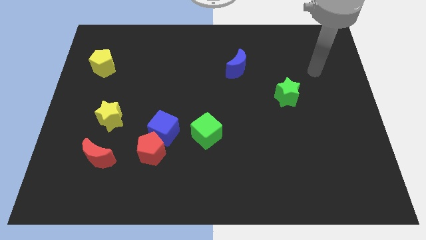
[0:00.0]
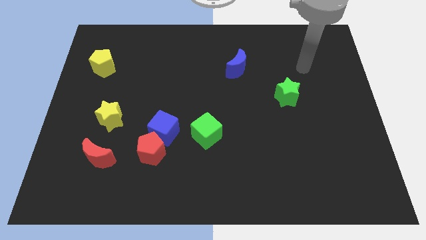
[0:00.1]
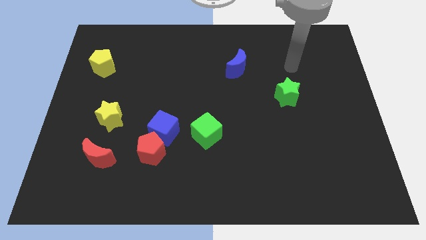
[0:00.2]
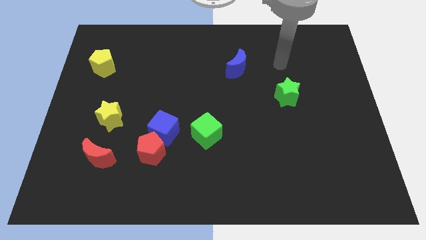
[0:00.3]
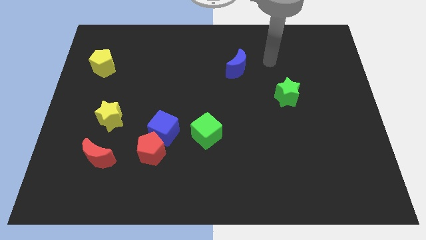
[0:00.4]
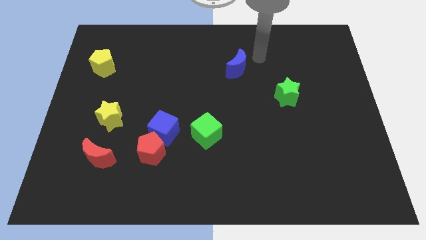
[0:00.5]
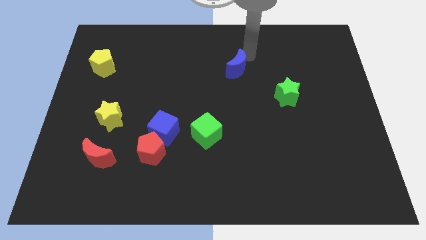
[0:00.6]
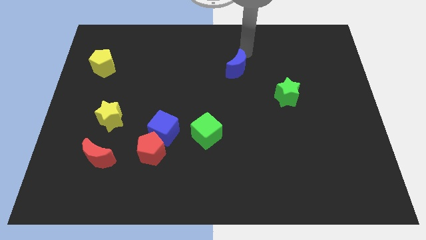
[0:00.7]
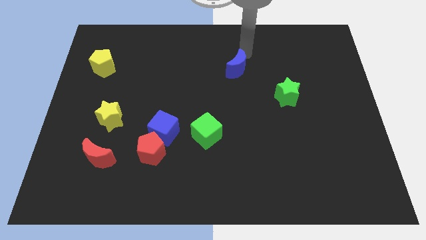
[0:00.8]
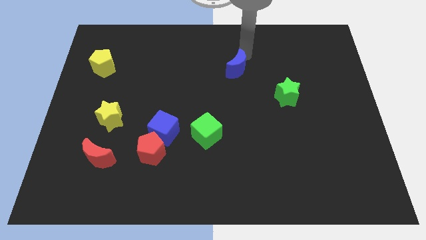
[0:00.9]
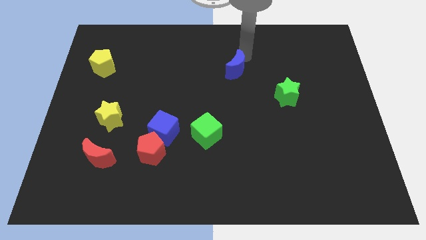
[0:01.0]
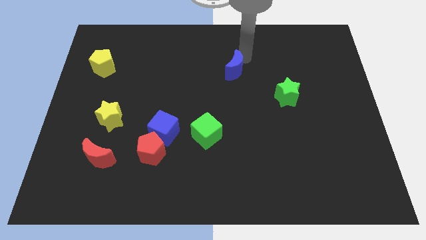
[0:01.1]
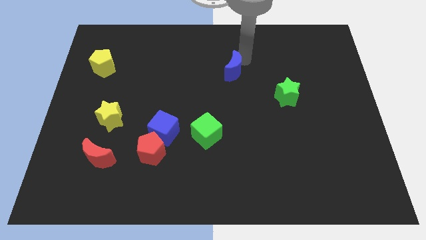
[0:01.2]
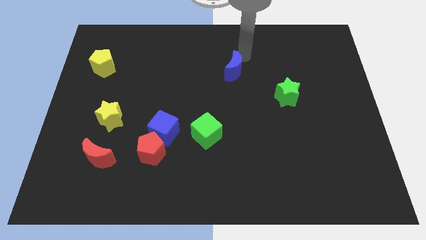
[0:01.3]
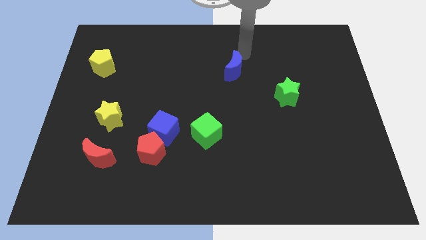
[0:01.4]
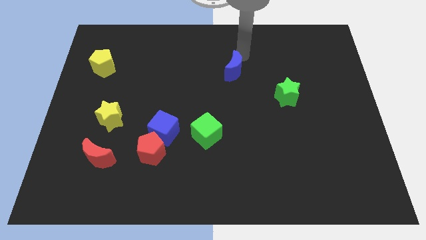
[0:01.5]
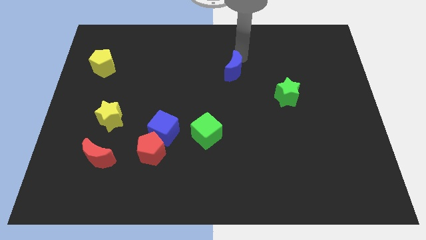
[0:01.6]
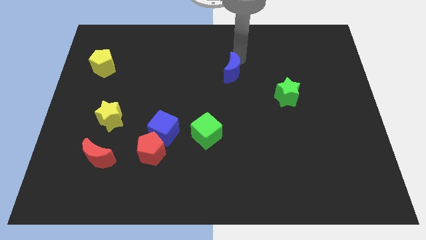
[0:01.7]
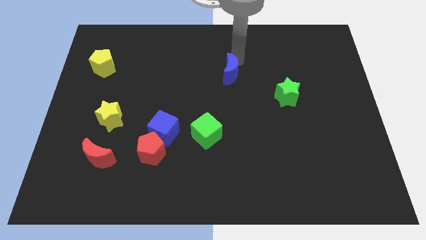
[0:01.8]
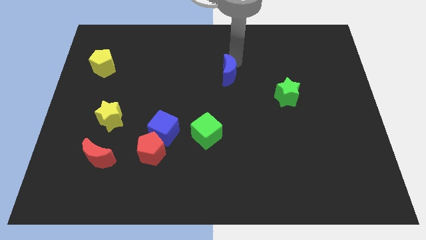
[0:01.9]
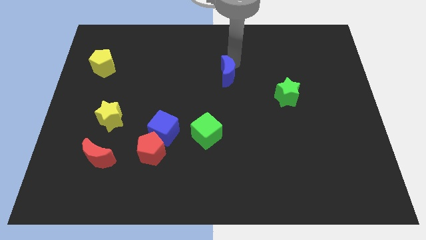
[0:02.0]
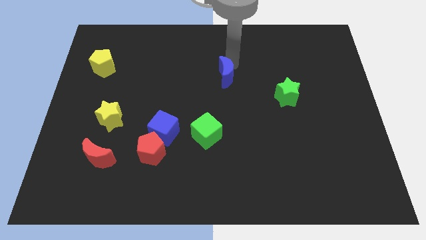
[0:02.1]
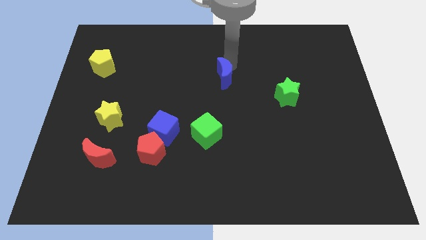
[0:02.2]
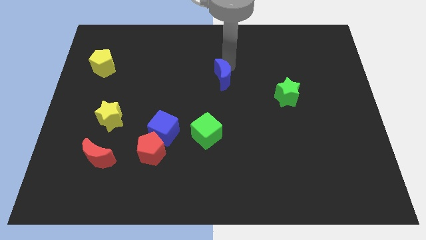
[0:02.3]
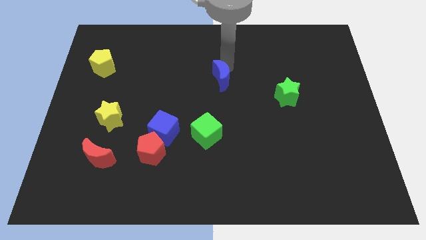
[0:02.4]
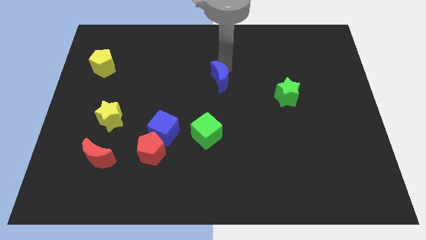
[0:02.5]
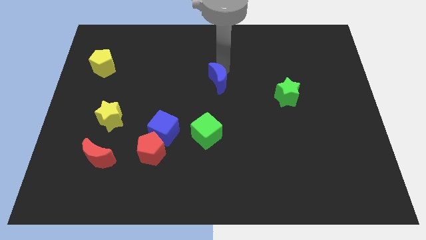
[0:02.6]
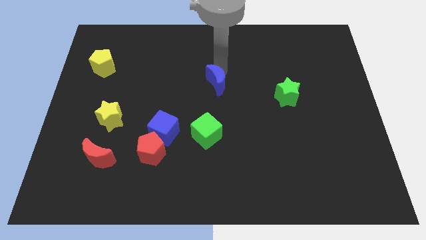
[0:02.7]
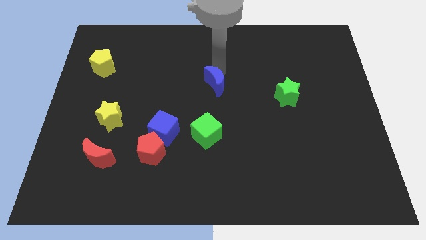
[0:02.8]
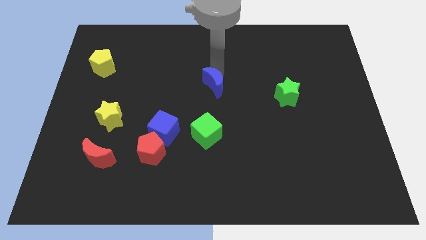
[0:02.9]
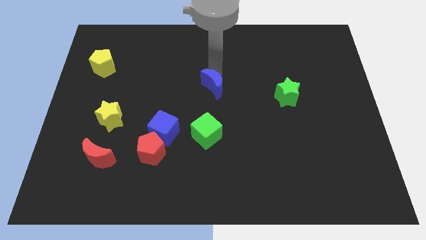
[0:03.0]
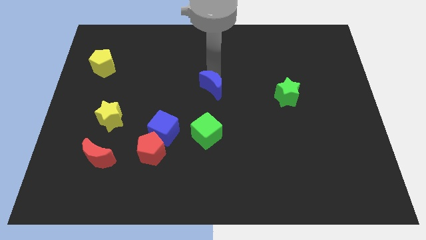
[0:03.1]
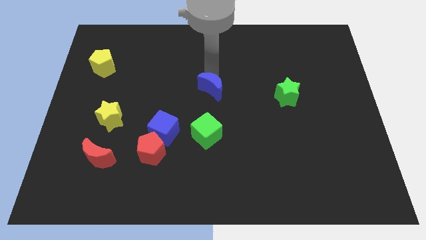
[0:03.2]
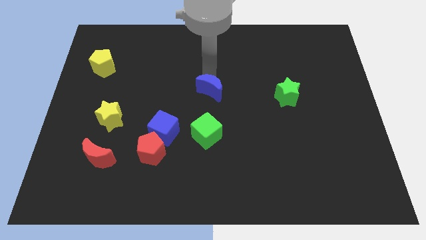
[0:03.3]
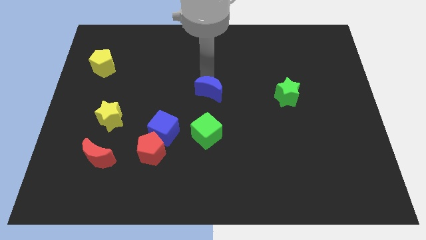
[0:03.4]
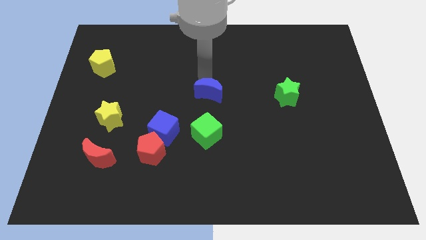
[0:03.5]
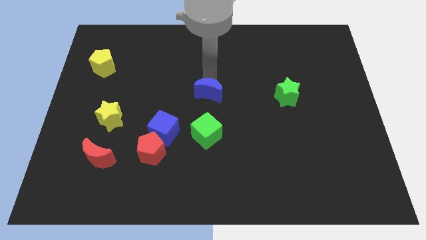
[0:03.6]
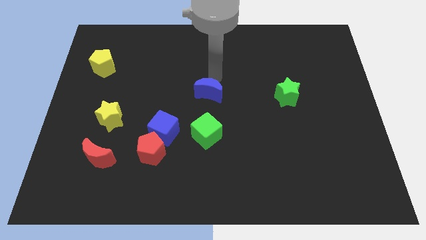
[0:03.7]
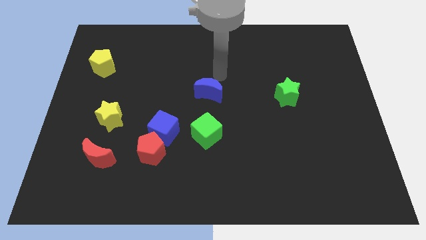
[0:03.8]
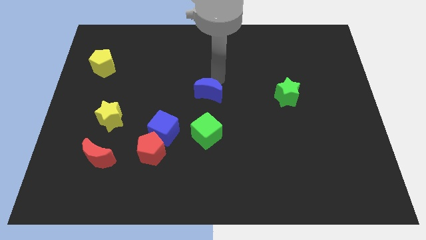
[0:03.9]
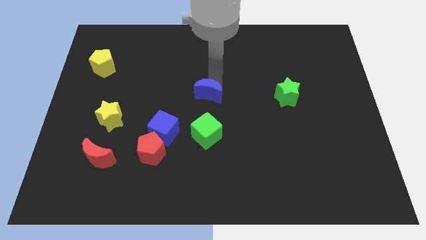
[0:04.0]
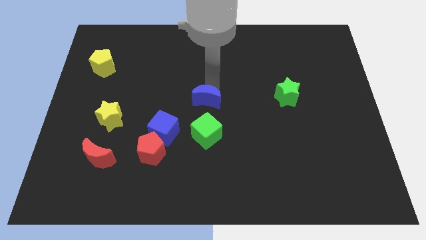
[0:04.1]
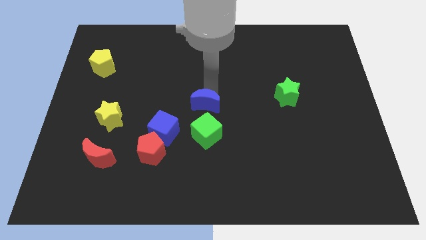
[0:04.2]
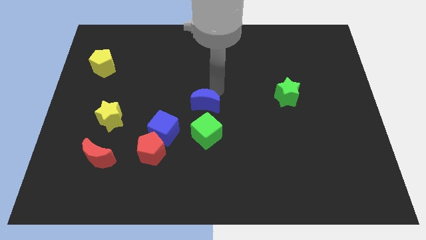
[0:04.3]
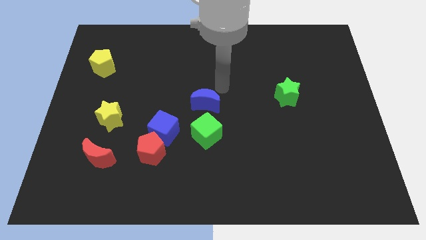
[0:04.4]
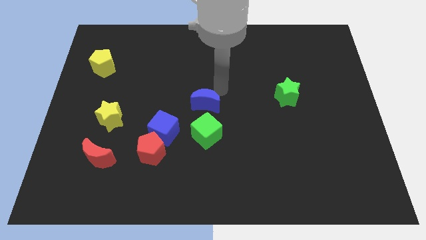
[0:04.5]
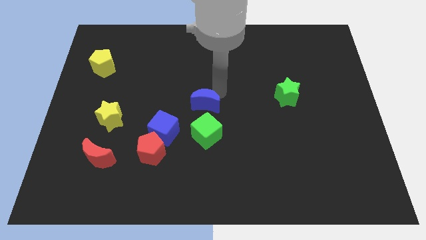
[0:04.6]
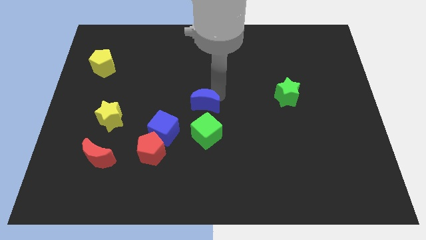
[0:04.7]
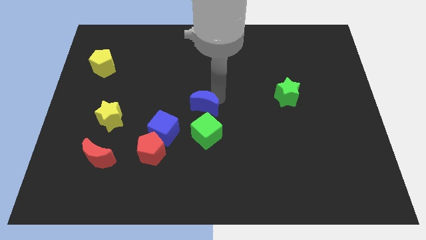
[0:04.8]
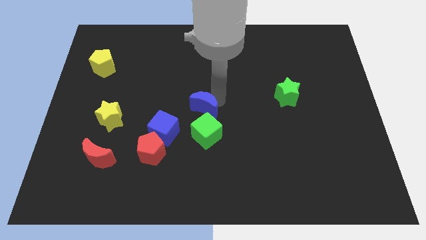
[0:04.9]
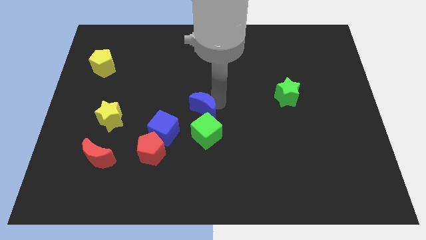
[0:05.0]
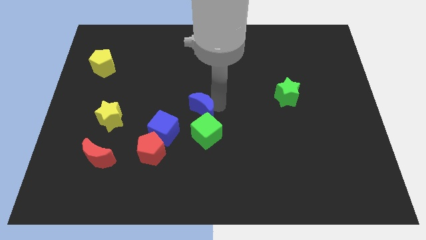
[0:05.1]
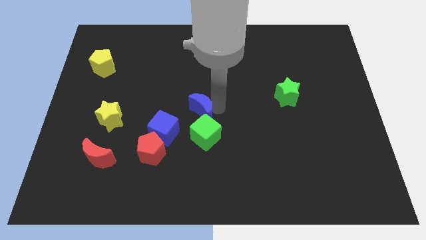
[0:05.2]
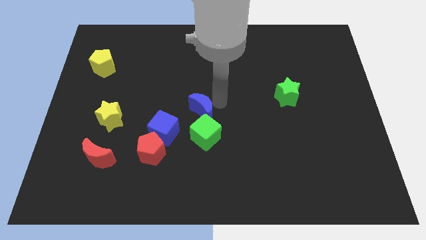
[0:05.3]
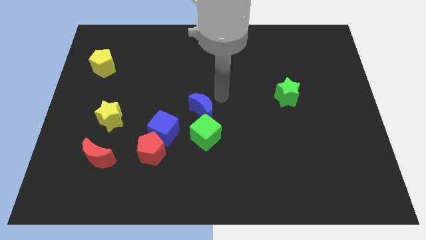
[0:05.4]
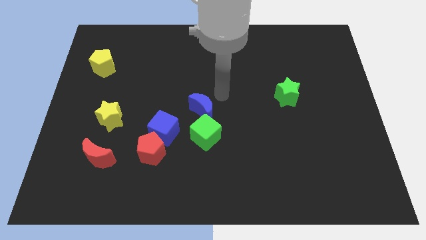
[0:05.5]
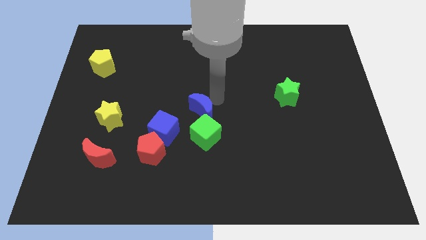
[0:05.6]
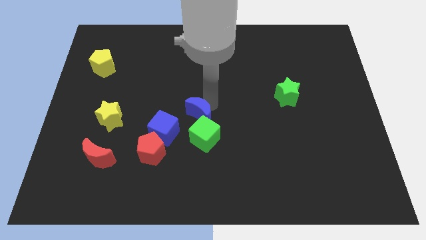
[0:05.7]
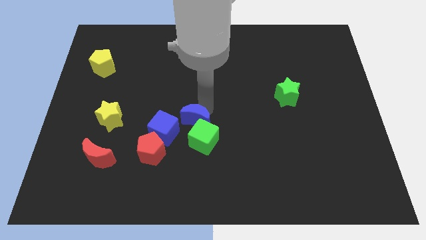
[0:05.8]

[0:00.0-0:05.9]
move the blue moon to the top right side of the red pentagon

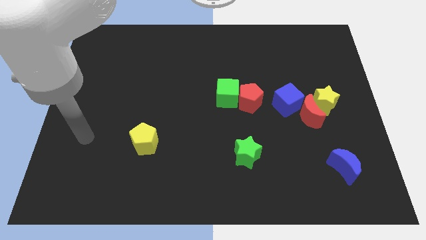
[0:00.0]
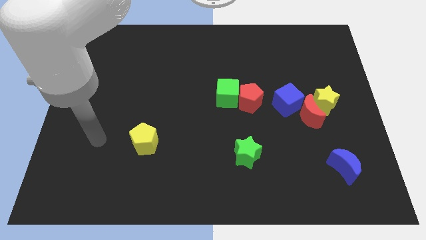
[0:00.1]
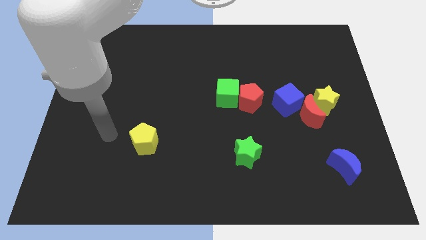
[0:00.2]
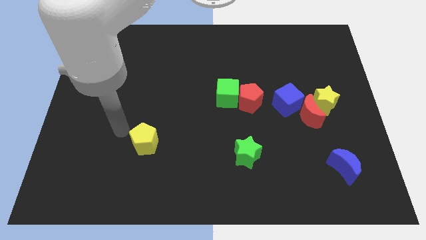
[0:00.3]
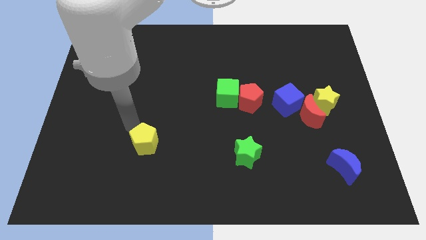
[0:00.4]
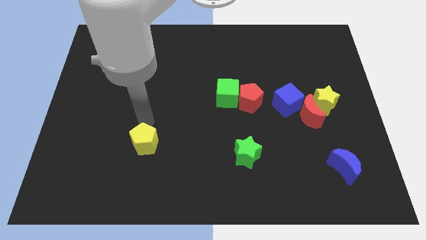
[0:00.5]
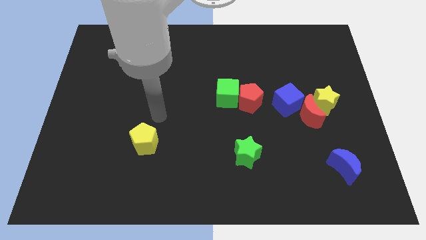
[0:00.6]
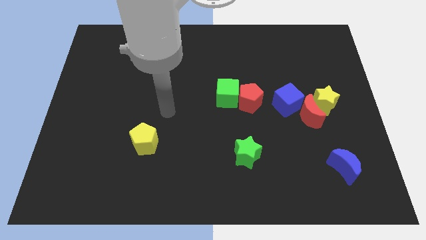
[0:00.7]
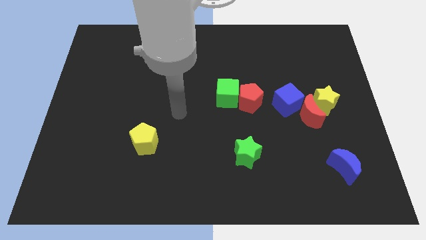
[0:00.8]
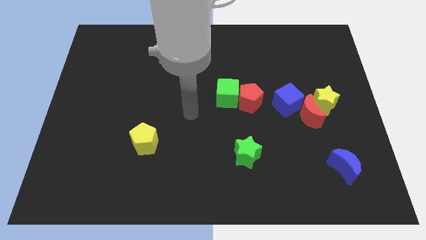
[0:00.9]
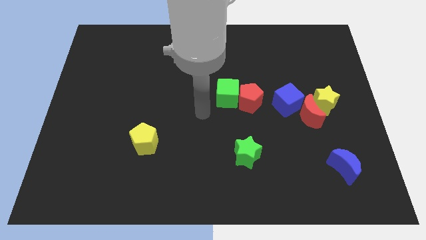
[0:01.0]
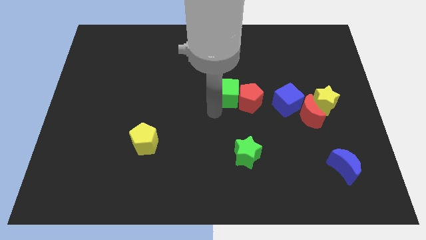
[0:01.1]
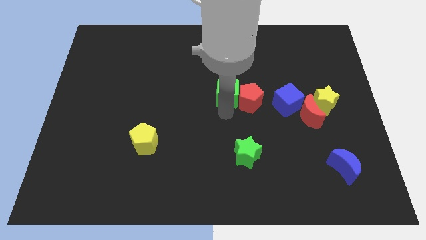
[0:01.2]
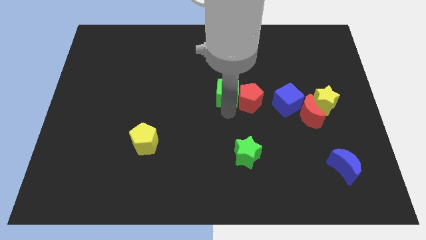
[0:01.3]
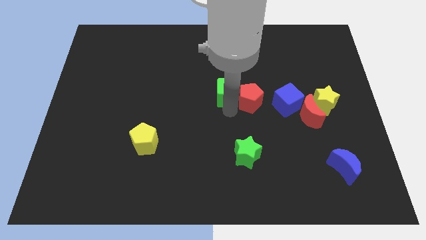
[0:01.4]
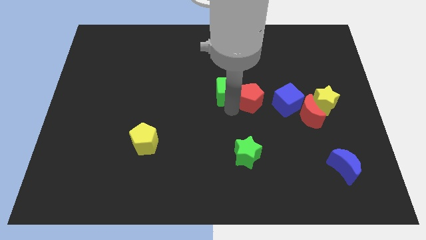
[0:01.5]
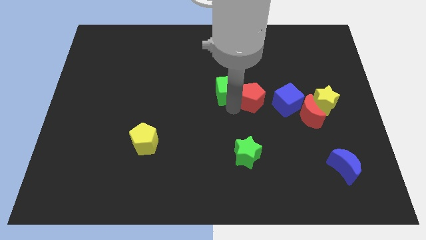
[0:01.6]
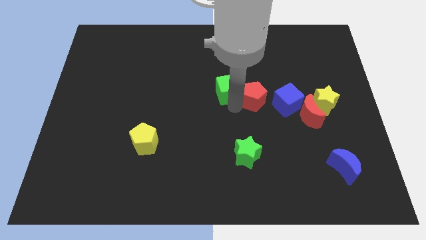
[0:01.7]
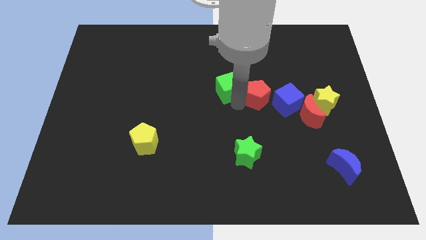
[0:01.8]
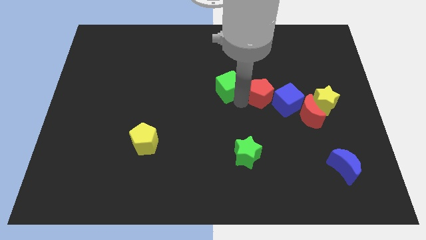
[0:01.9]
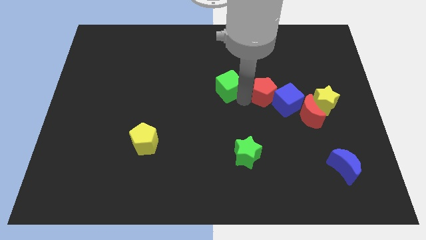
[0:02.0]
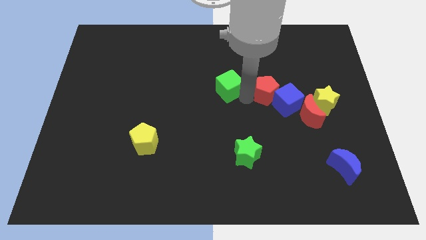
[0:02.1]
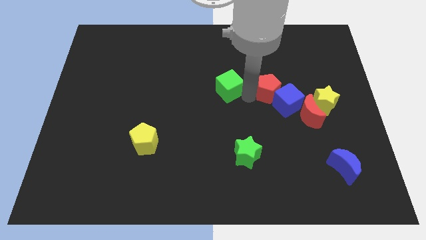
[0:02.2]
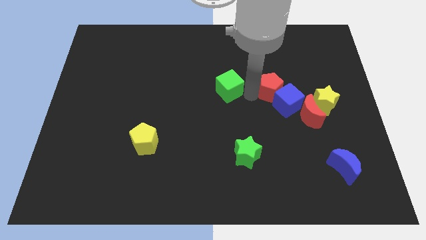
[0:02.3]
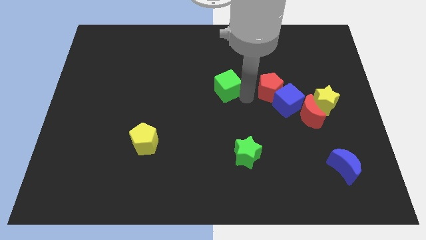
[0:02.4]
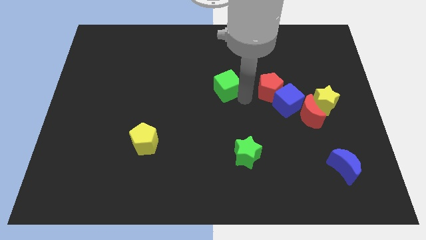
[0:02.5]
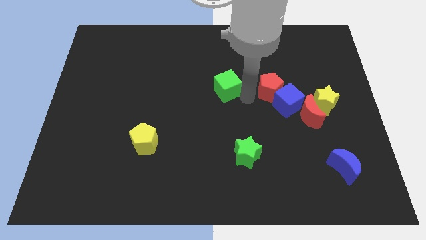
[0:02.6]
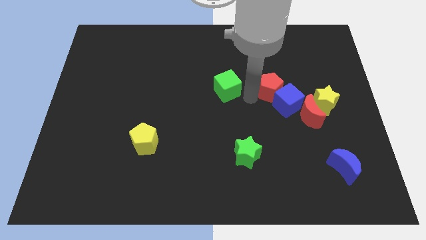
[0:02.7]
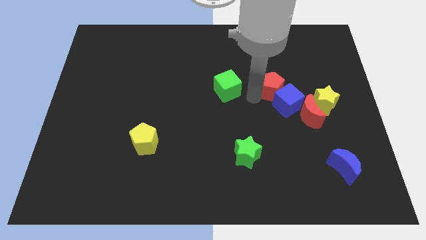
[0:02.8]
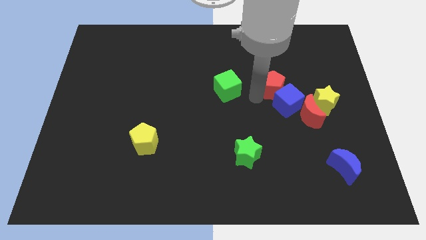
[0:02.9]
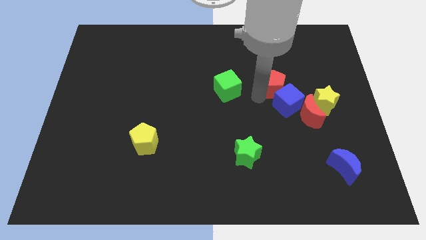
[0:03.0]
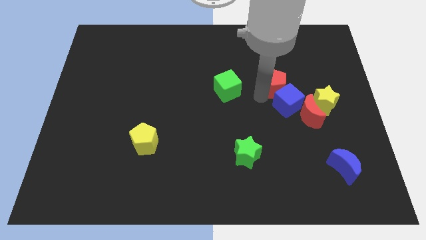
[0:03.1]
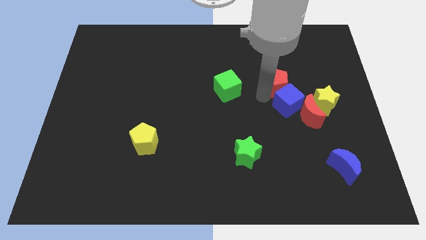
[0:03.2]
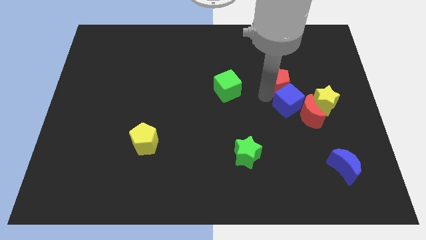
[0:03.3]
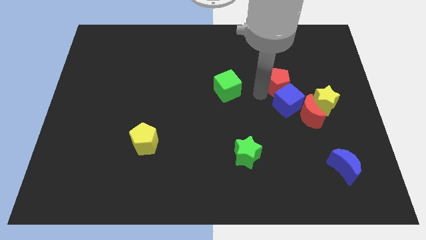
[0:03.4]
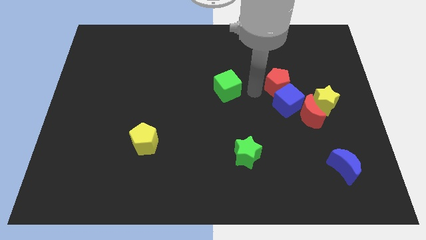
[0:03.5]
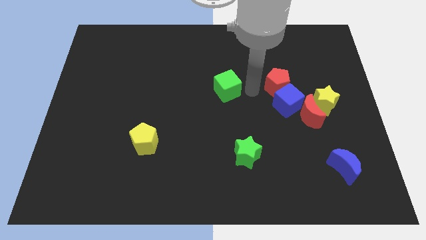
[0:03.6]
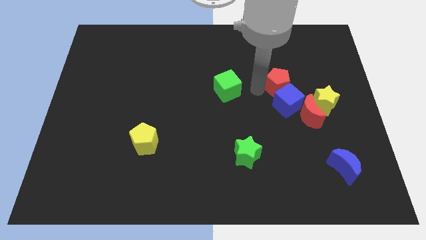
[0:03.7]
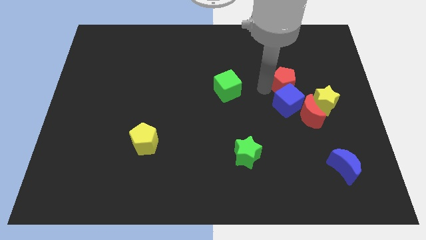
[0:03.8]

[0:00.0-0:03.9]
push the red pentagon above the red moon
